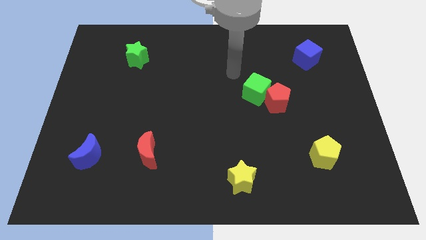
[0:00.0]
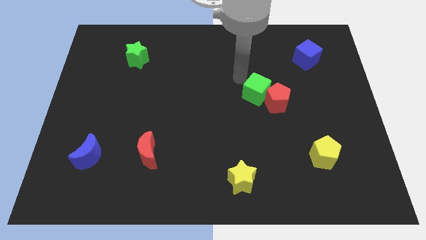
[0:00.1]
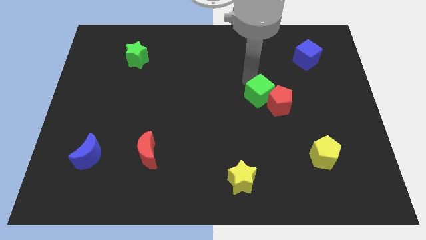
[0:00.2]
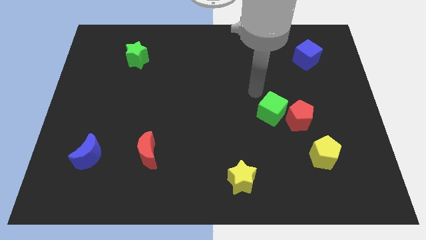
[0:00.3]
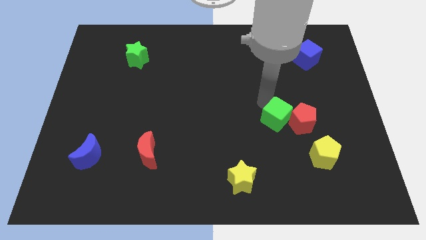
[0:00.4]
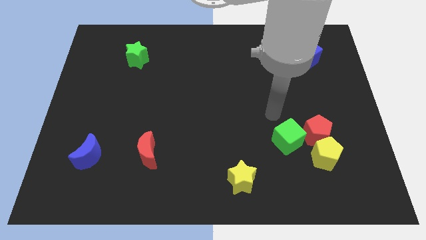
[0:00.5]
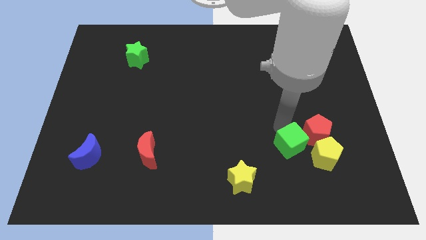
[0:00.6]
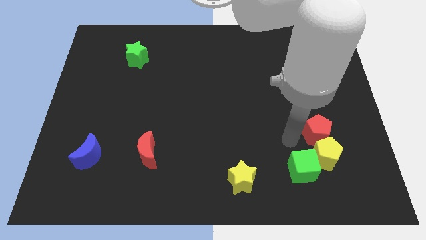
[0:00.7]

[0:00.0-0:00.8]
pull the red pentagon apart from the green cube

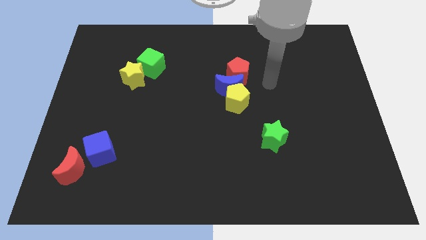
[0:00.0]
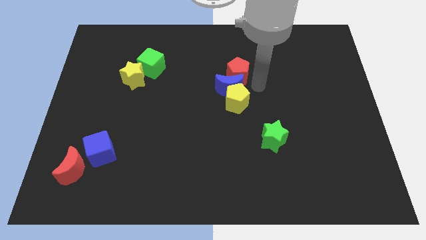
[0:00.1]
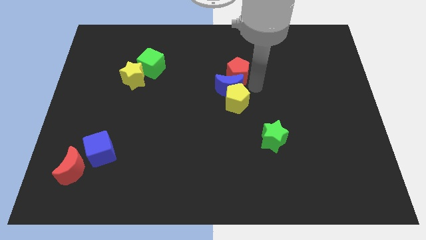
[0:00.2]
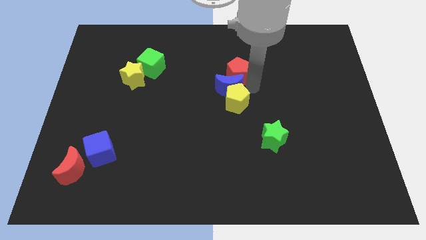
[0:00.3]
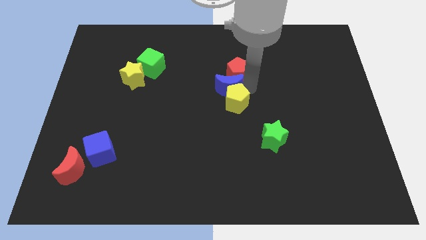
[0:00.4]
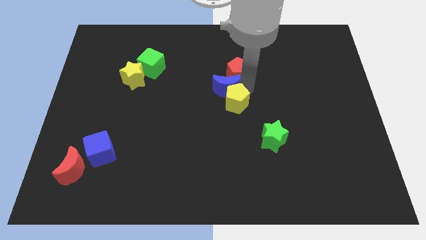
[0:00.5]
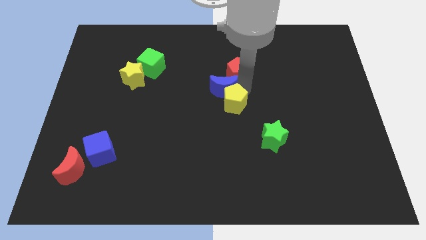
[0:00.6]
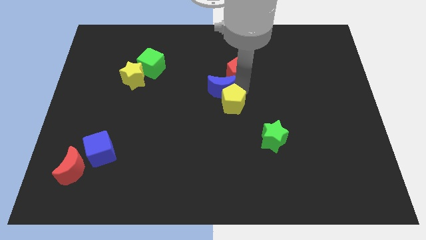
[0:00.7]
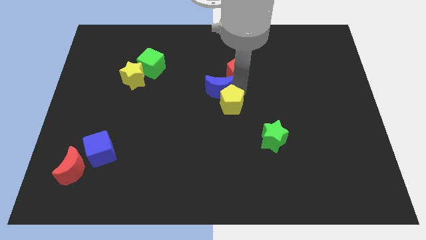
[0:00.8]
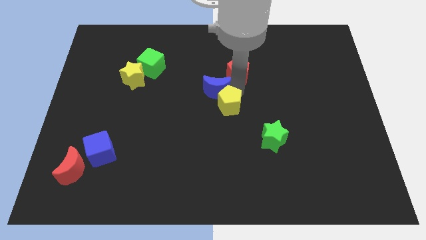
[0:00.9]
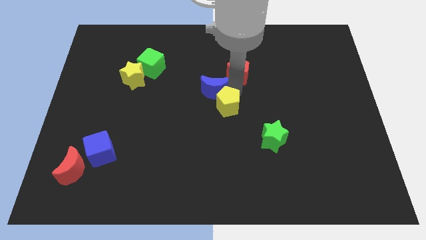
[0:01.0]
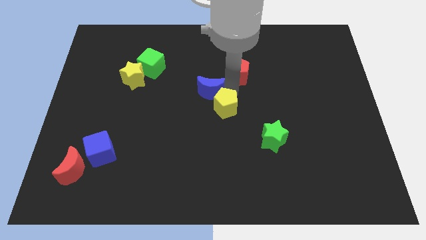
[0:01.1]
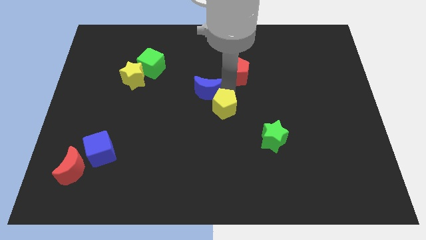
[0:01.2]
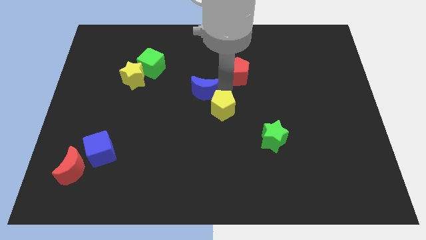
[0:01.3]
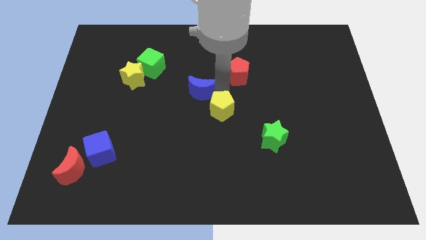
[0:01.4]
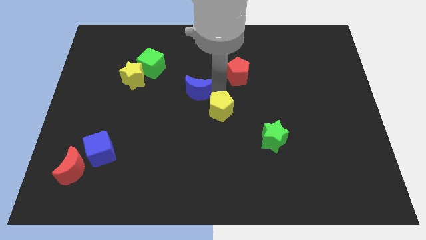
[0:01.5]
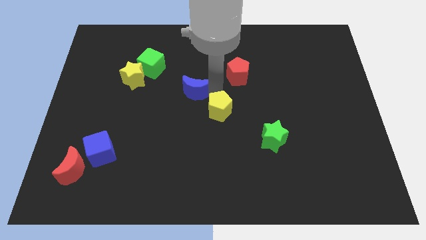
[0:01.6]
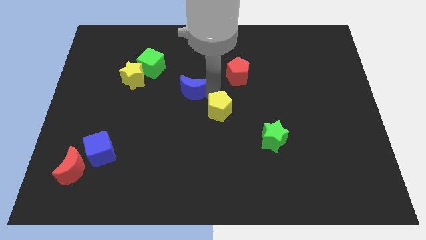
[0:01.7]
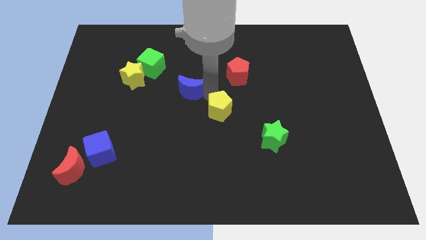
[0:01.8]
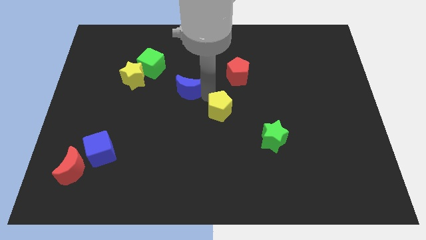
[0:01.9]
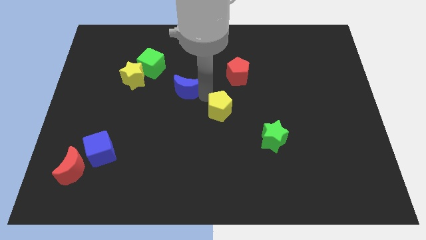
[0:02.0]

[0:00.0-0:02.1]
pull the blue moon apart from the yellow pentagon and red pentagon

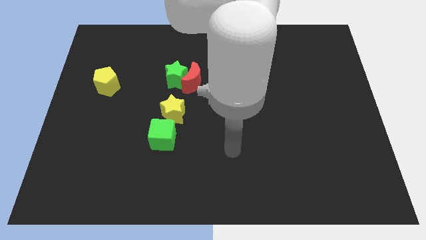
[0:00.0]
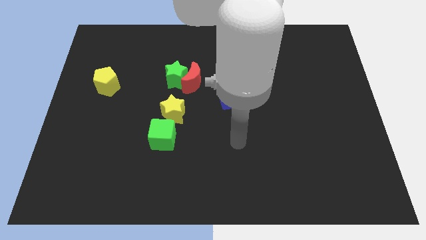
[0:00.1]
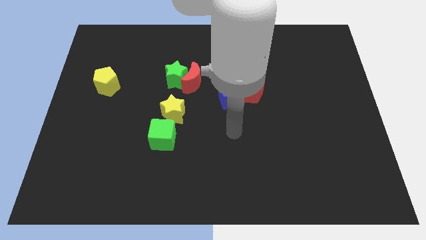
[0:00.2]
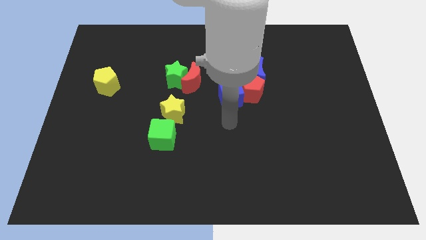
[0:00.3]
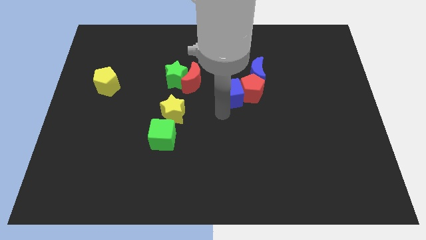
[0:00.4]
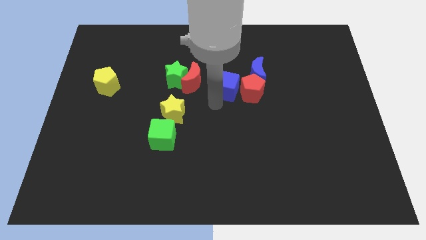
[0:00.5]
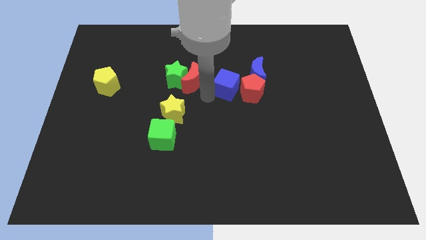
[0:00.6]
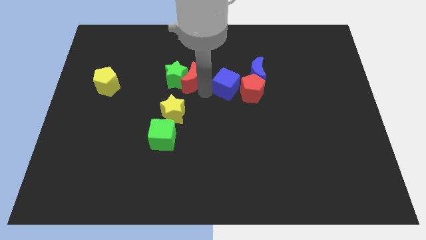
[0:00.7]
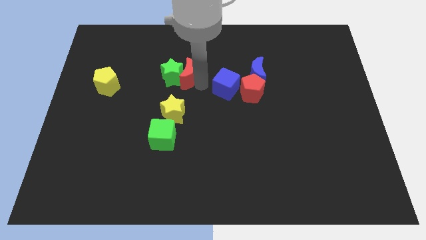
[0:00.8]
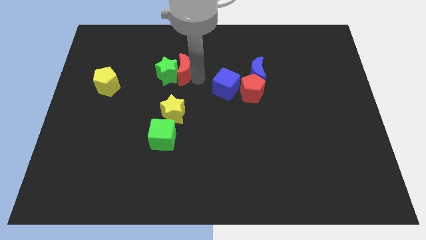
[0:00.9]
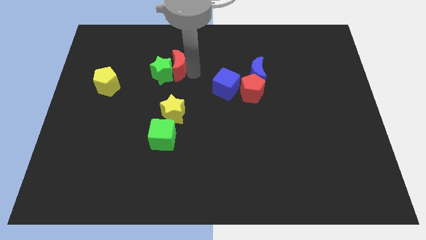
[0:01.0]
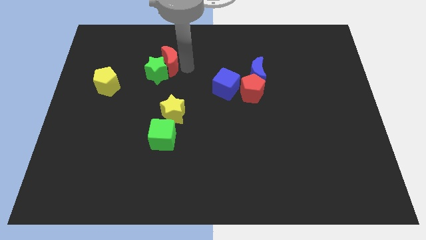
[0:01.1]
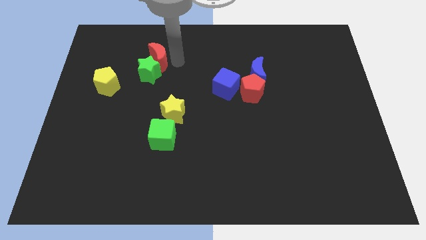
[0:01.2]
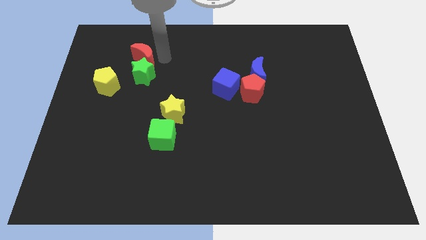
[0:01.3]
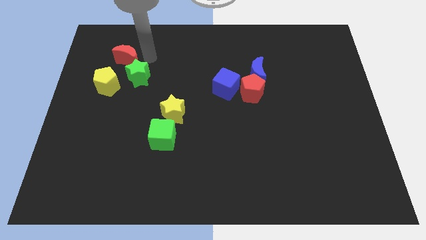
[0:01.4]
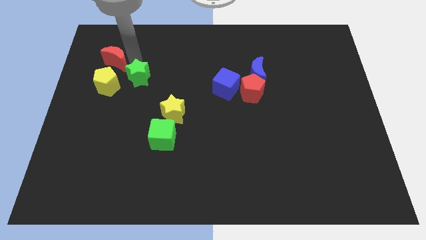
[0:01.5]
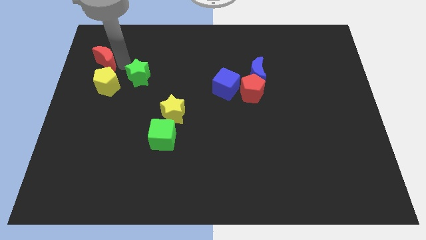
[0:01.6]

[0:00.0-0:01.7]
separate the green star from the red moon

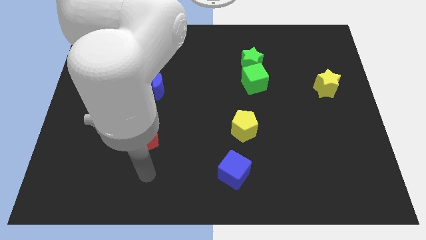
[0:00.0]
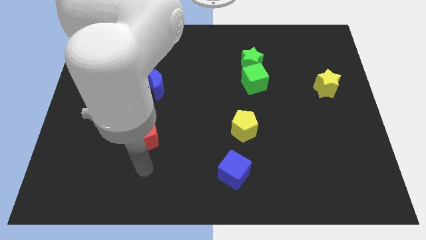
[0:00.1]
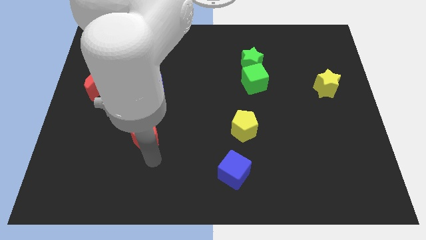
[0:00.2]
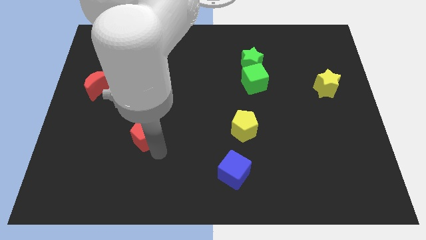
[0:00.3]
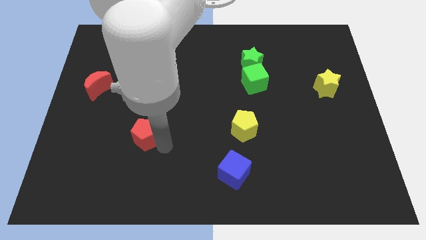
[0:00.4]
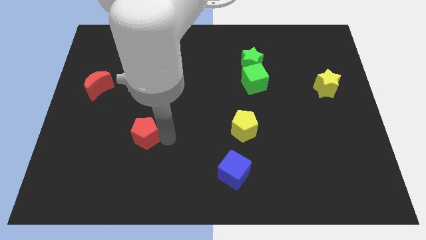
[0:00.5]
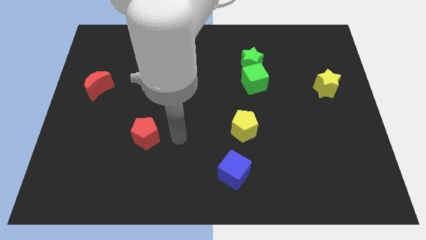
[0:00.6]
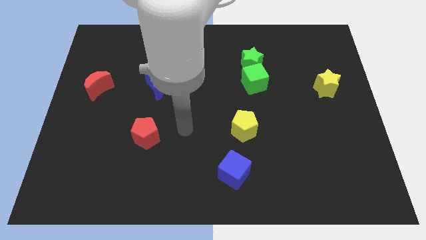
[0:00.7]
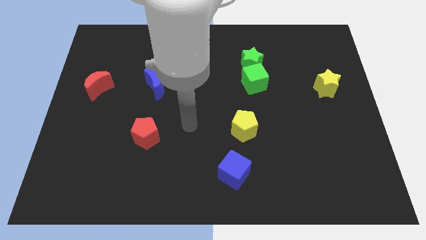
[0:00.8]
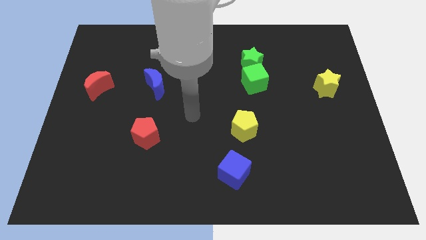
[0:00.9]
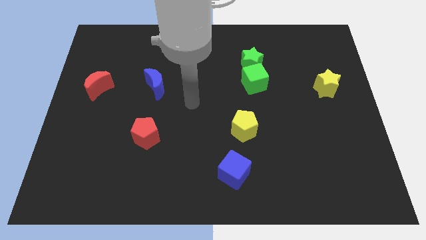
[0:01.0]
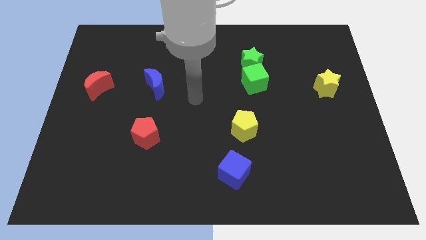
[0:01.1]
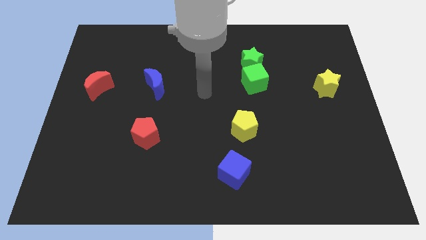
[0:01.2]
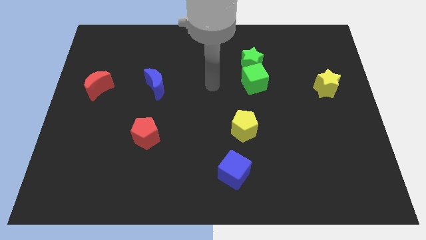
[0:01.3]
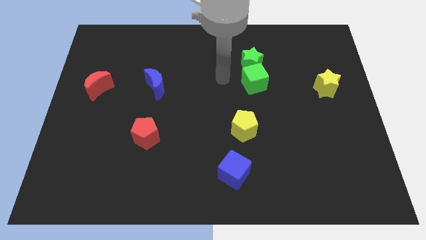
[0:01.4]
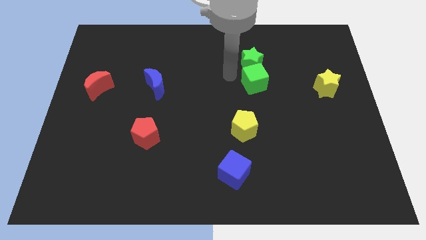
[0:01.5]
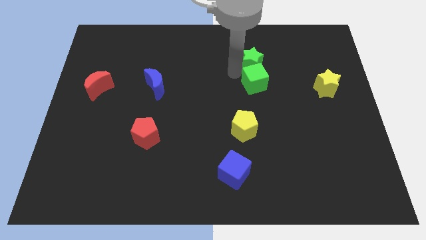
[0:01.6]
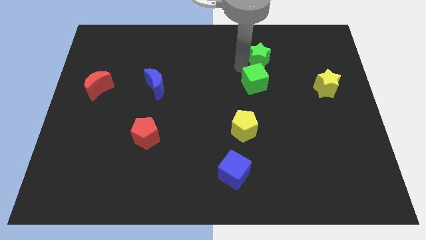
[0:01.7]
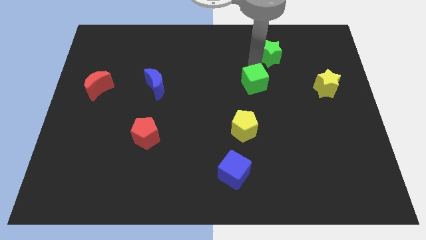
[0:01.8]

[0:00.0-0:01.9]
separate the green cube from the green star

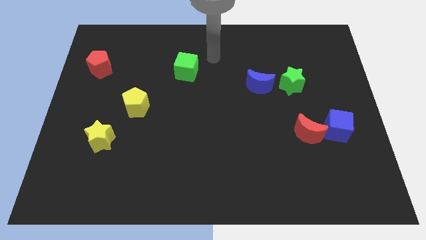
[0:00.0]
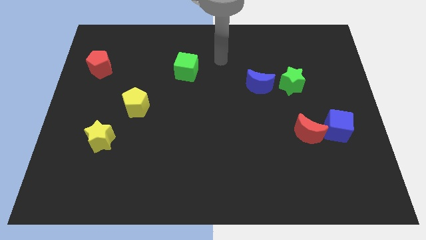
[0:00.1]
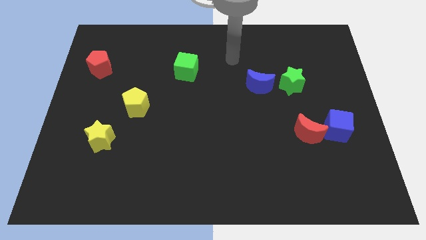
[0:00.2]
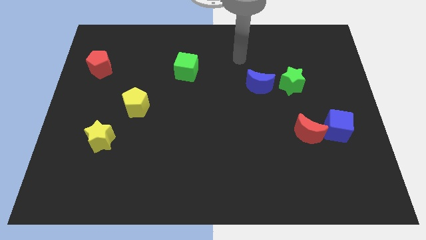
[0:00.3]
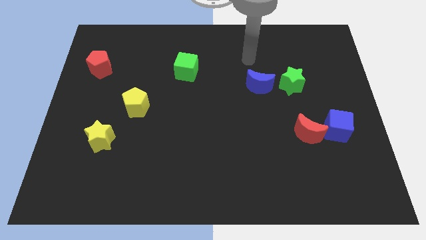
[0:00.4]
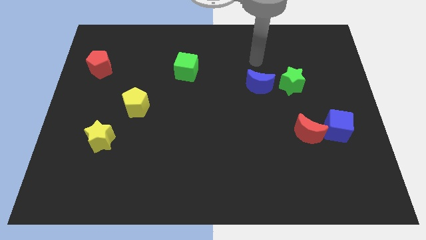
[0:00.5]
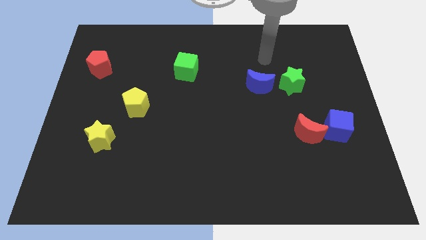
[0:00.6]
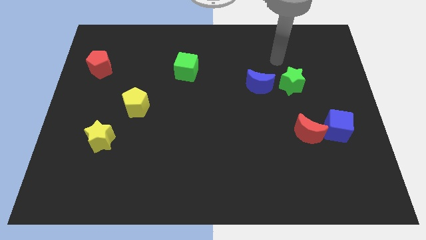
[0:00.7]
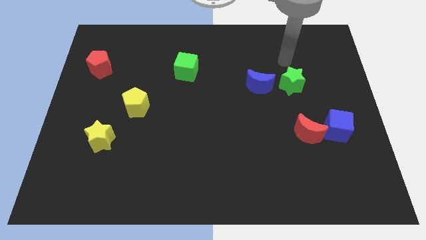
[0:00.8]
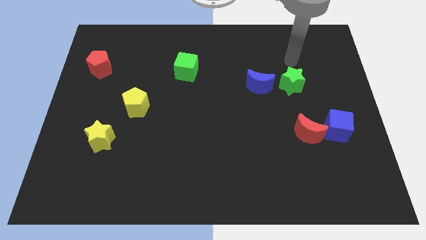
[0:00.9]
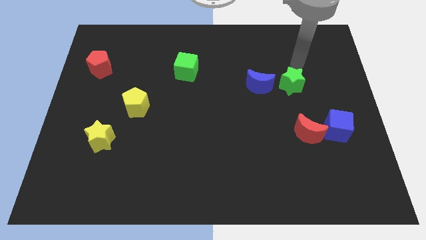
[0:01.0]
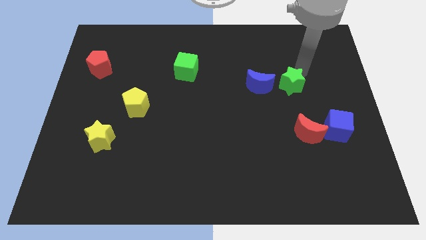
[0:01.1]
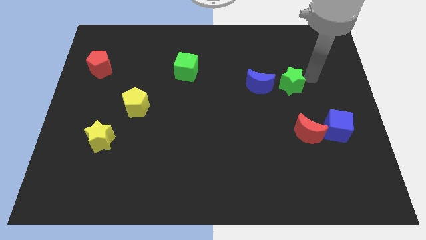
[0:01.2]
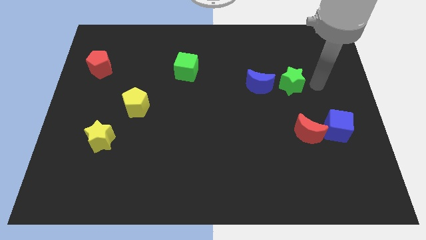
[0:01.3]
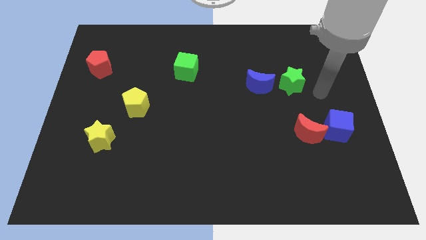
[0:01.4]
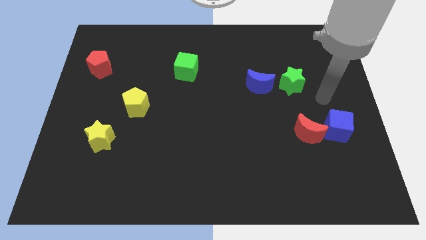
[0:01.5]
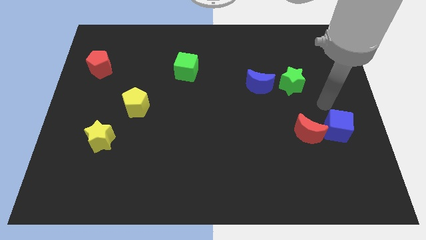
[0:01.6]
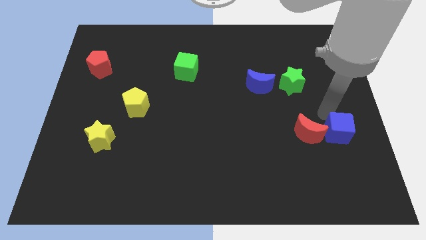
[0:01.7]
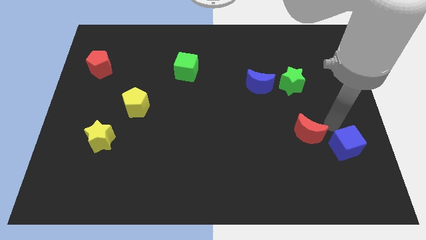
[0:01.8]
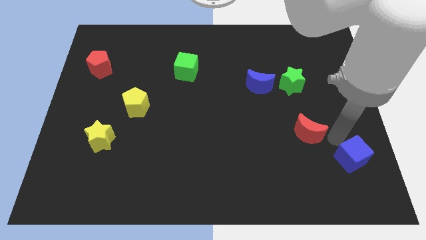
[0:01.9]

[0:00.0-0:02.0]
pull the red moon apart from the blue cube

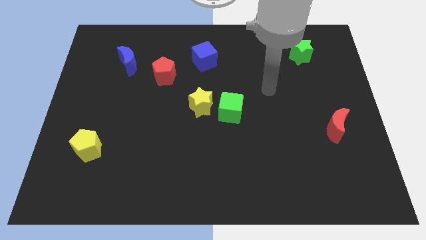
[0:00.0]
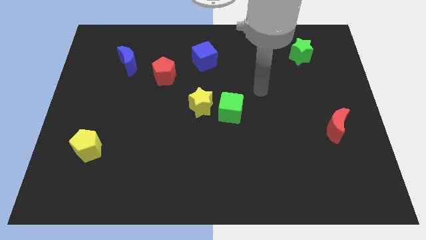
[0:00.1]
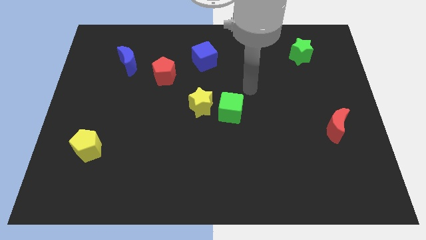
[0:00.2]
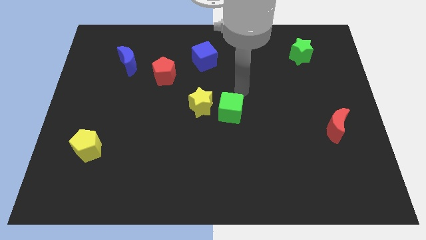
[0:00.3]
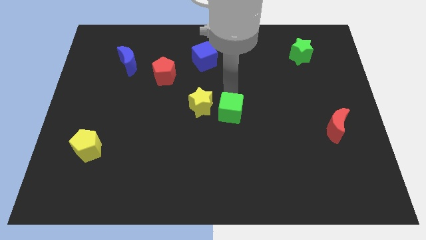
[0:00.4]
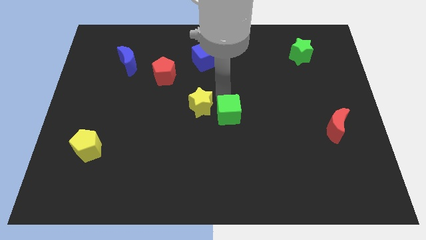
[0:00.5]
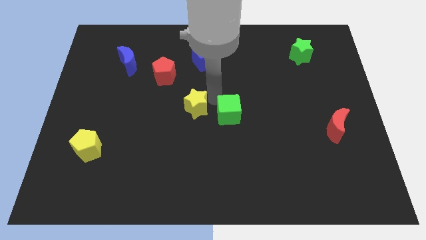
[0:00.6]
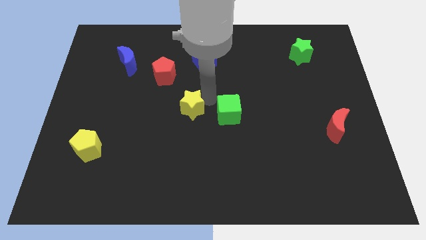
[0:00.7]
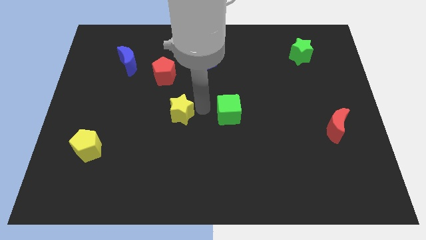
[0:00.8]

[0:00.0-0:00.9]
pull the green cube apart from the yellow star
